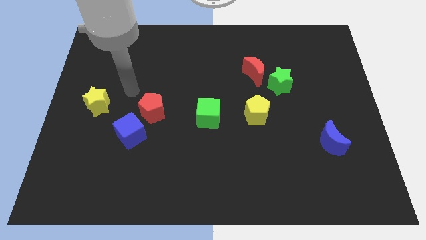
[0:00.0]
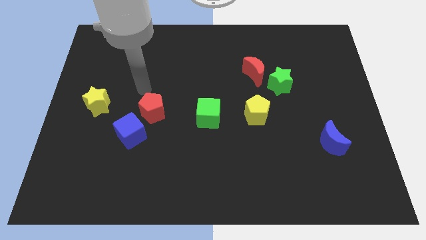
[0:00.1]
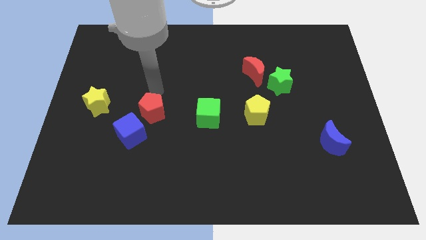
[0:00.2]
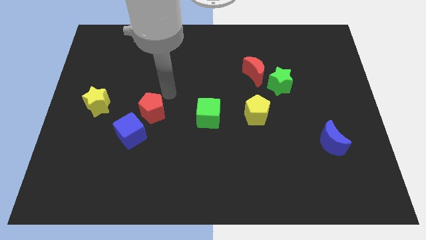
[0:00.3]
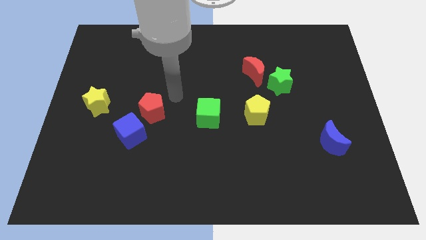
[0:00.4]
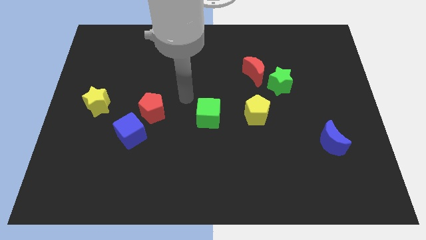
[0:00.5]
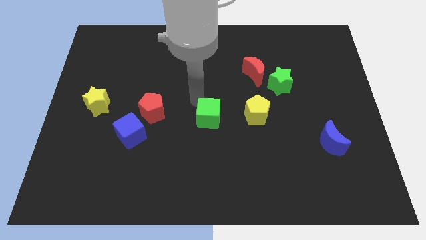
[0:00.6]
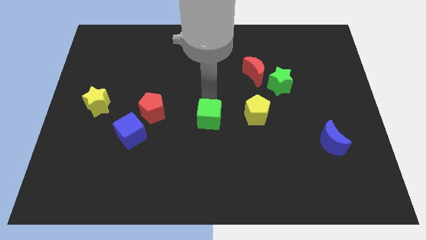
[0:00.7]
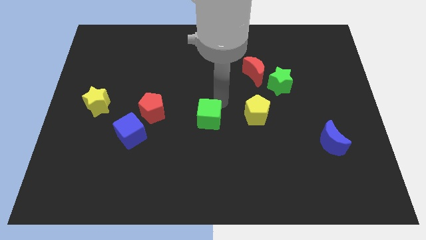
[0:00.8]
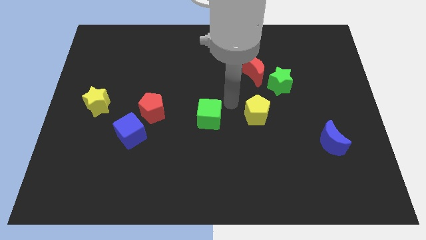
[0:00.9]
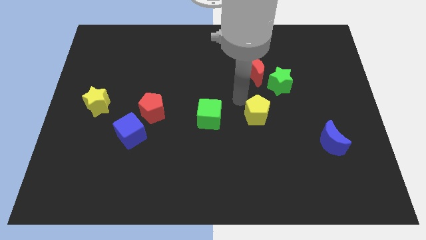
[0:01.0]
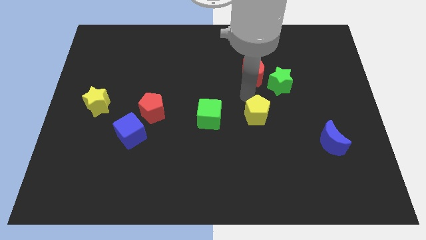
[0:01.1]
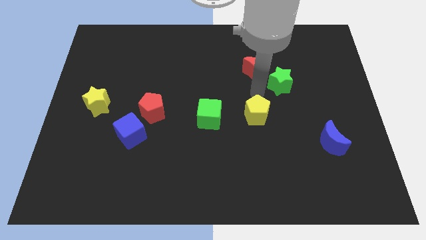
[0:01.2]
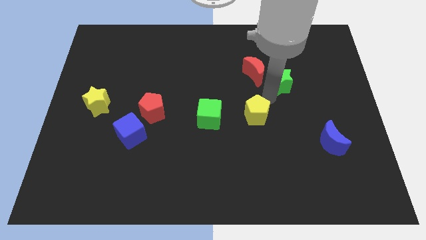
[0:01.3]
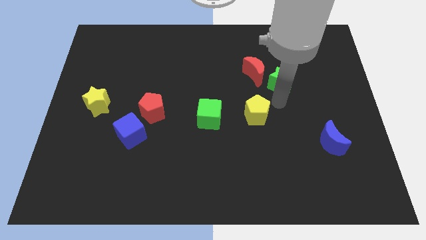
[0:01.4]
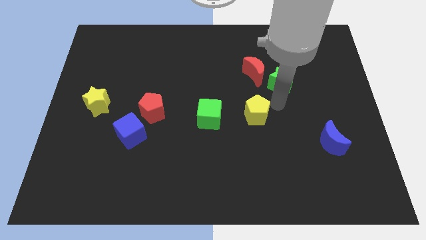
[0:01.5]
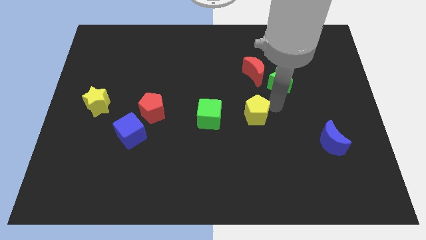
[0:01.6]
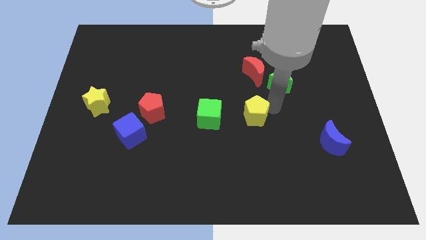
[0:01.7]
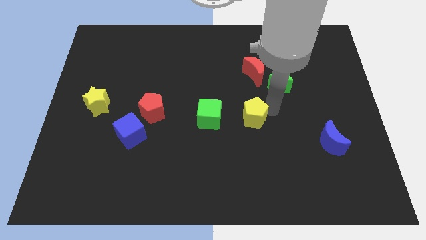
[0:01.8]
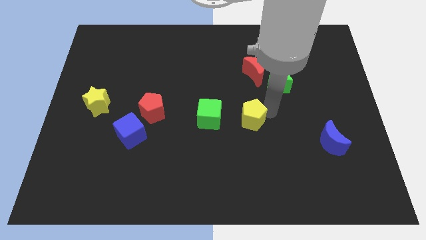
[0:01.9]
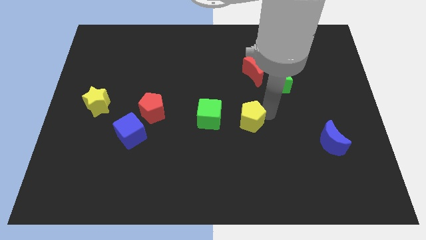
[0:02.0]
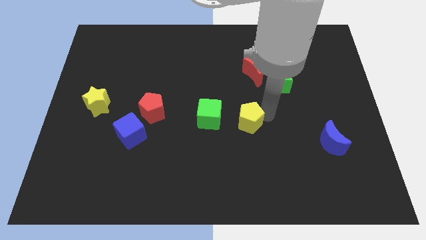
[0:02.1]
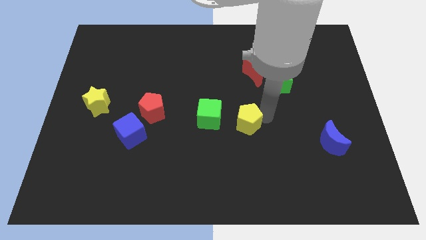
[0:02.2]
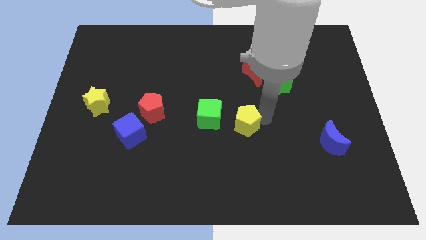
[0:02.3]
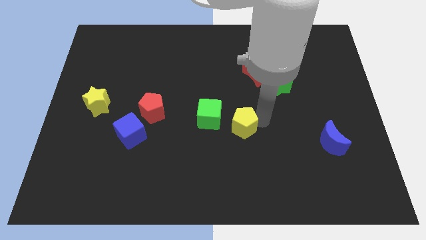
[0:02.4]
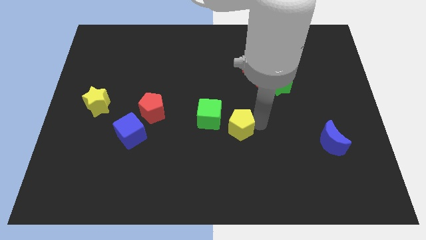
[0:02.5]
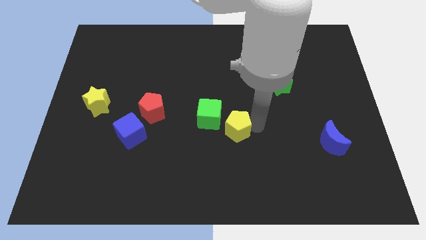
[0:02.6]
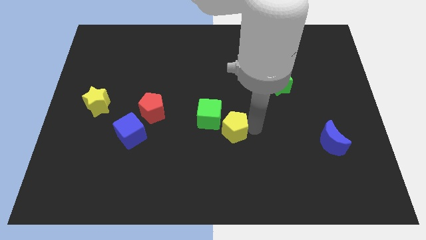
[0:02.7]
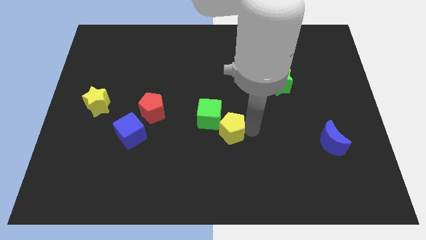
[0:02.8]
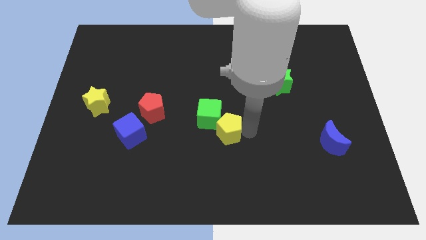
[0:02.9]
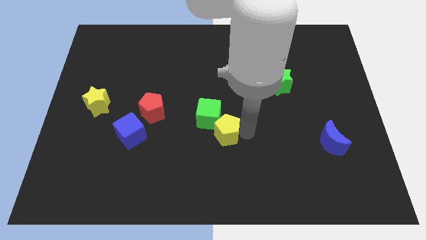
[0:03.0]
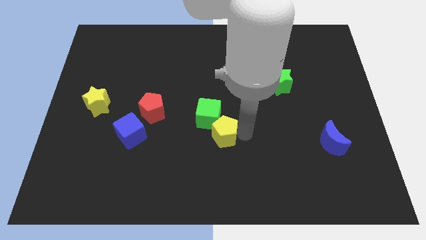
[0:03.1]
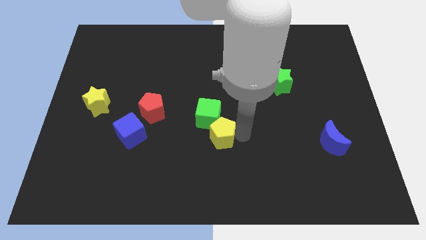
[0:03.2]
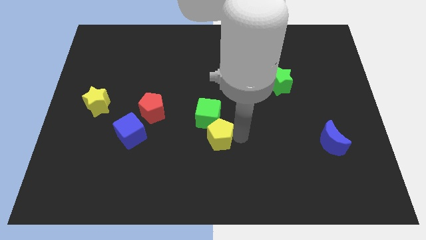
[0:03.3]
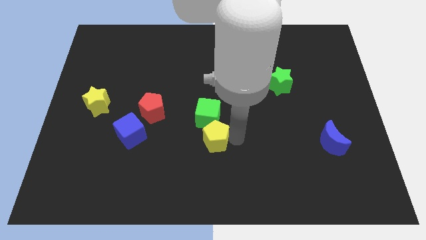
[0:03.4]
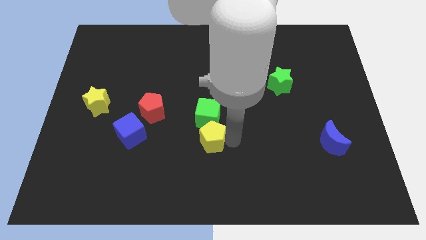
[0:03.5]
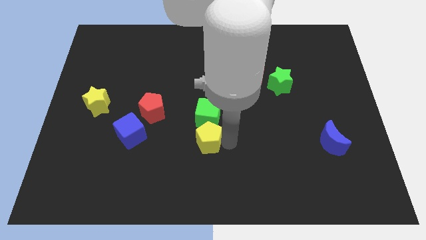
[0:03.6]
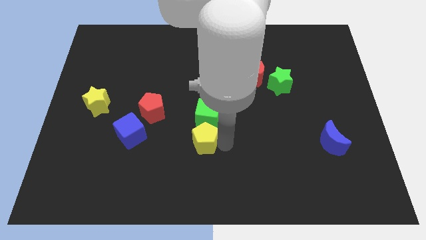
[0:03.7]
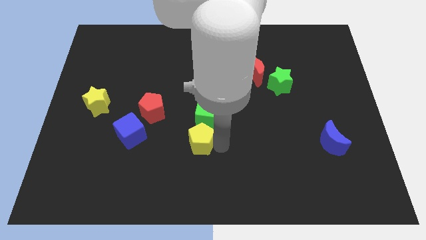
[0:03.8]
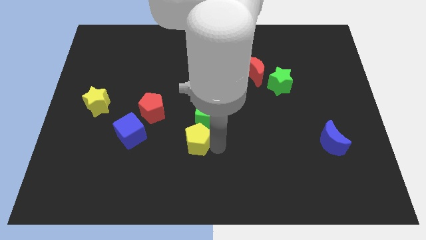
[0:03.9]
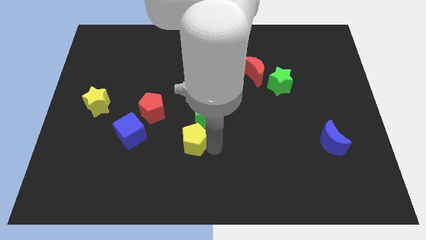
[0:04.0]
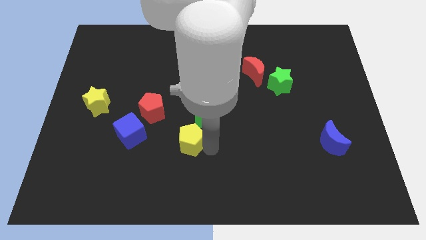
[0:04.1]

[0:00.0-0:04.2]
slide the yellow pentagon diagonally down and to the right of the red pentagon

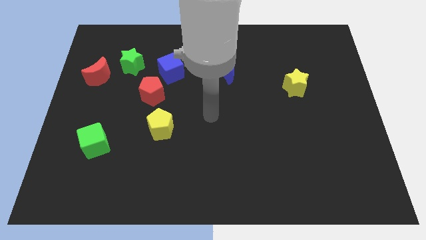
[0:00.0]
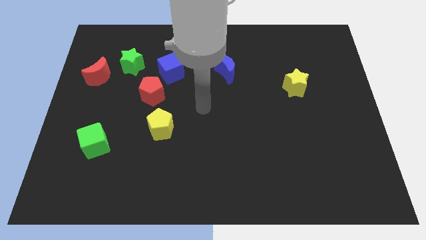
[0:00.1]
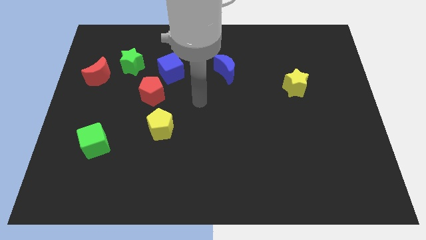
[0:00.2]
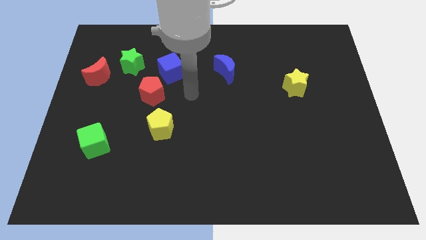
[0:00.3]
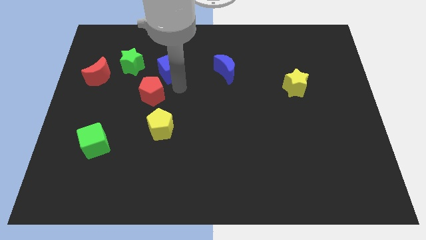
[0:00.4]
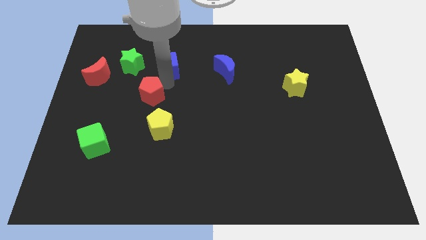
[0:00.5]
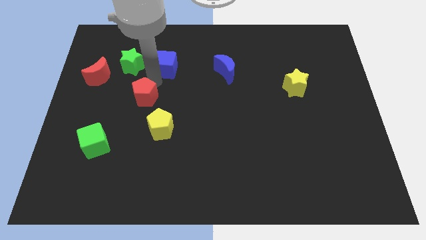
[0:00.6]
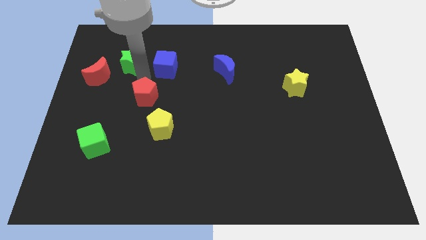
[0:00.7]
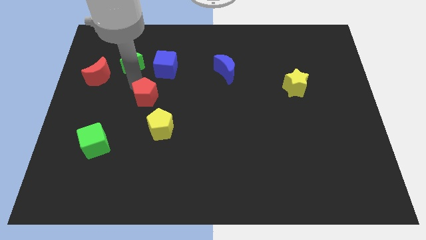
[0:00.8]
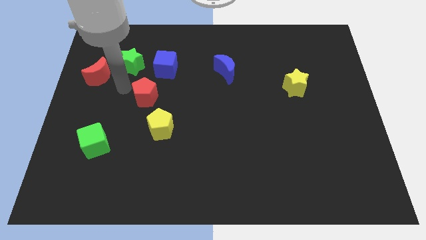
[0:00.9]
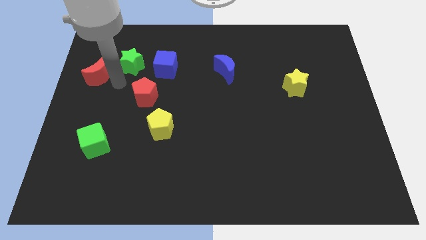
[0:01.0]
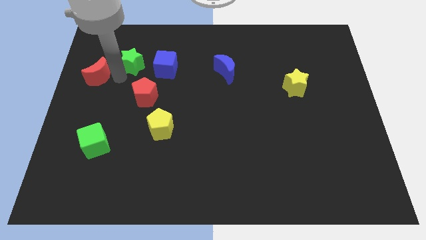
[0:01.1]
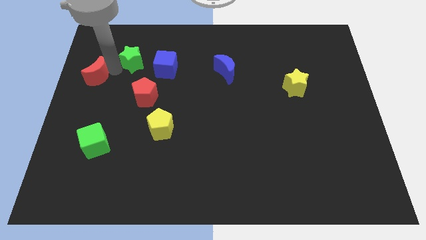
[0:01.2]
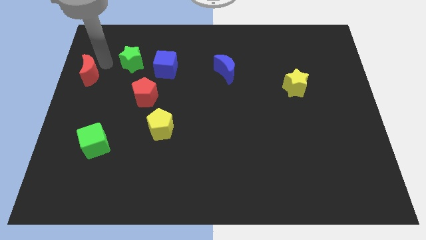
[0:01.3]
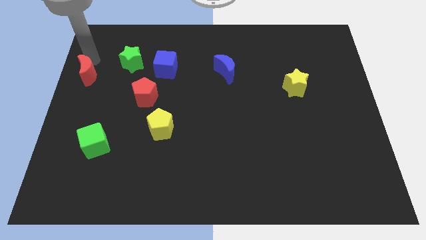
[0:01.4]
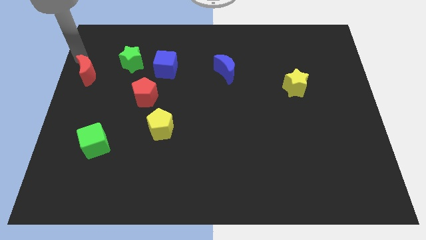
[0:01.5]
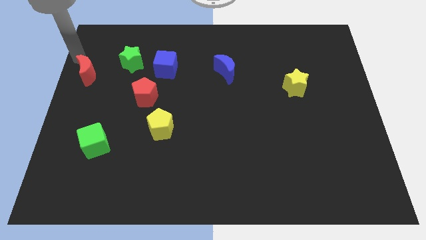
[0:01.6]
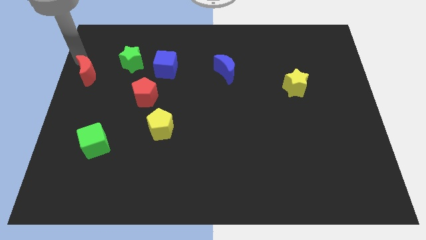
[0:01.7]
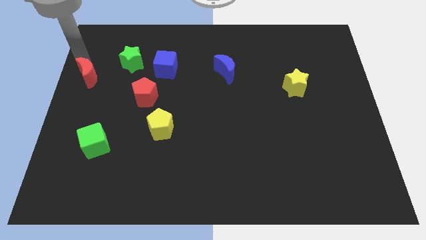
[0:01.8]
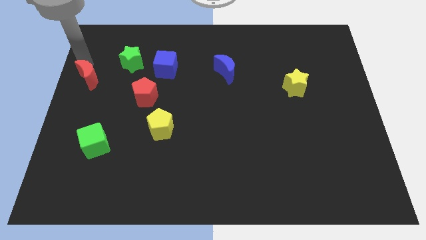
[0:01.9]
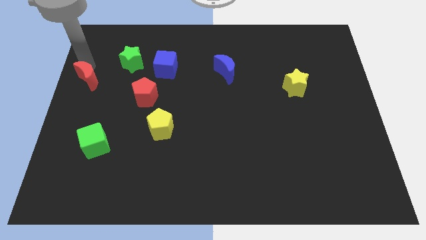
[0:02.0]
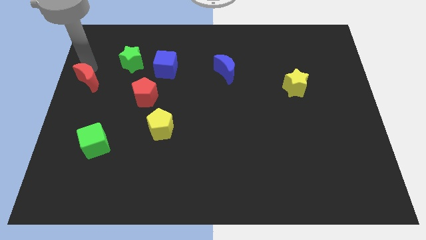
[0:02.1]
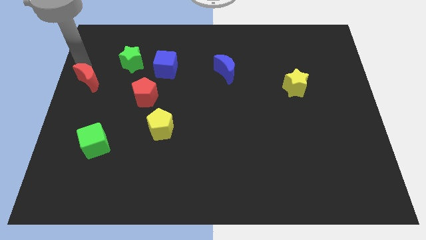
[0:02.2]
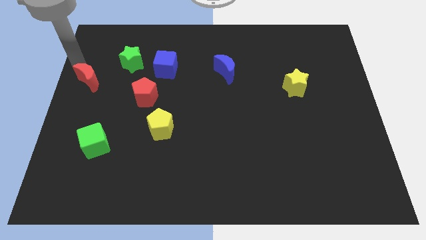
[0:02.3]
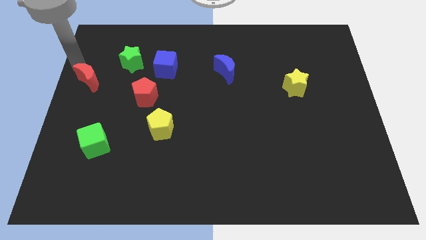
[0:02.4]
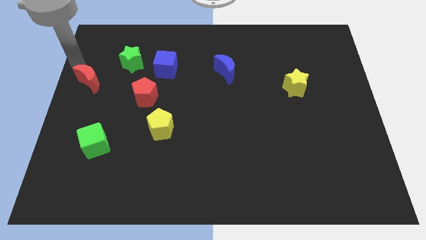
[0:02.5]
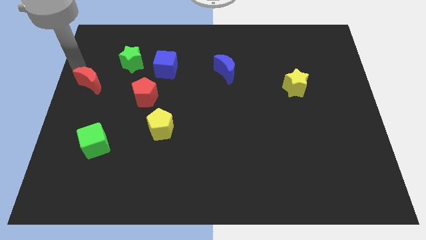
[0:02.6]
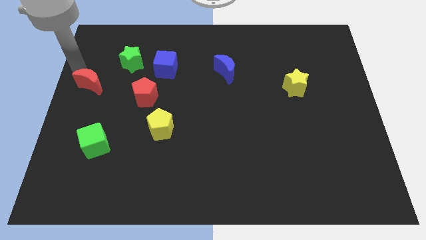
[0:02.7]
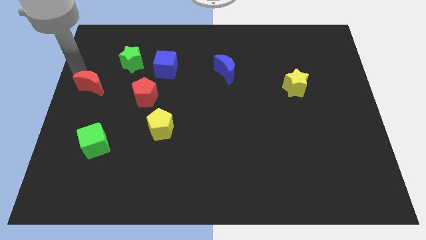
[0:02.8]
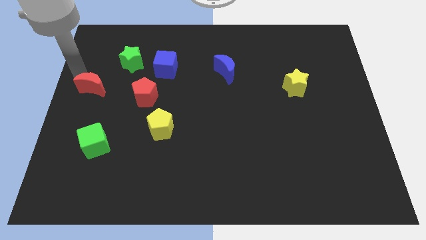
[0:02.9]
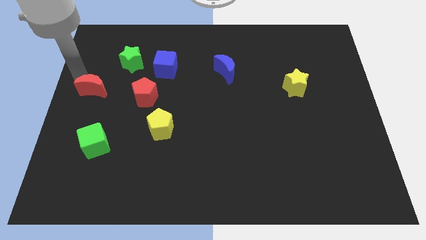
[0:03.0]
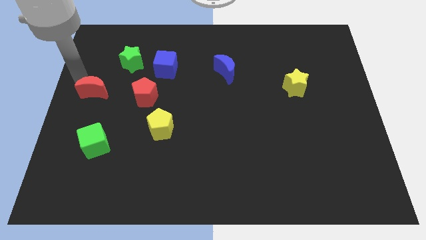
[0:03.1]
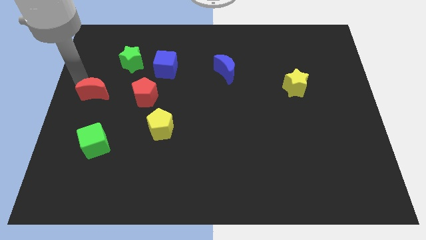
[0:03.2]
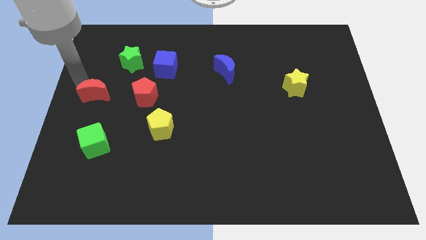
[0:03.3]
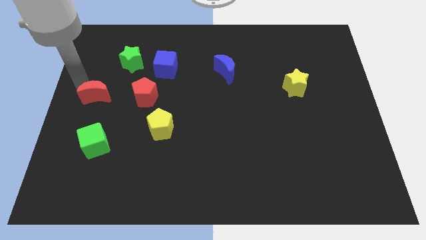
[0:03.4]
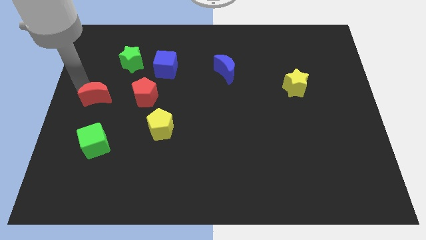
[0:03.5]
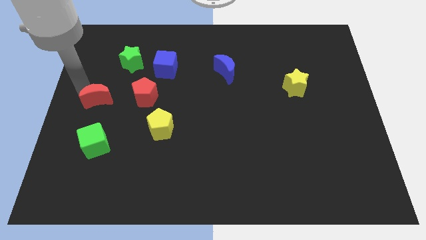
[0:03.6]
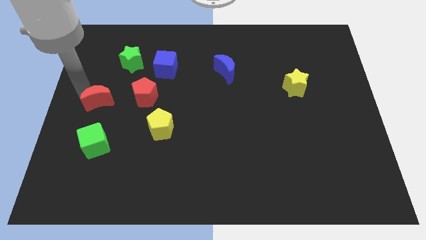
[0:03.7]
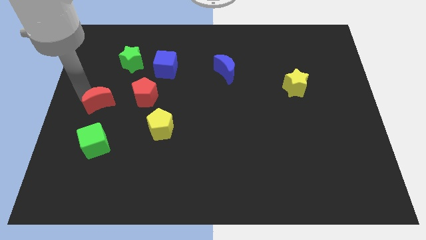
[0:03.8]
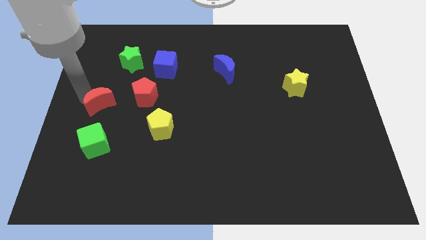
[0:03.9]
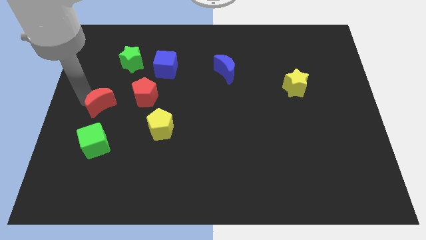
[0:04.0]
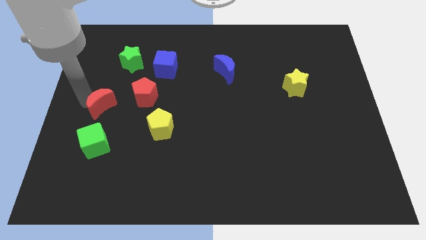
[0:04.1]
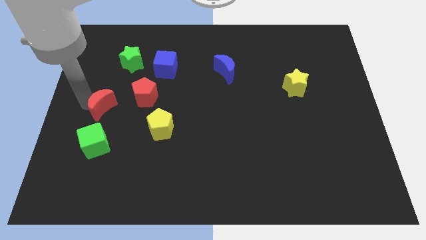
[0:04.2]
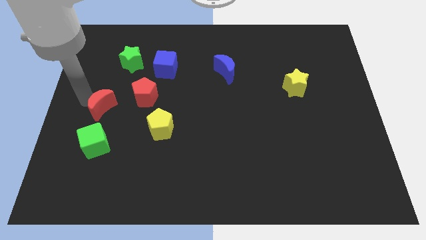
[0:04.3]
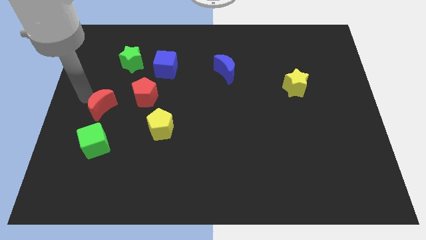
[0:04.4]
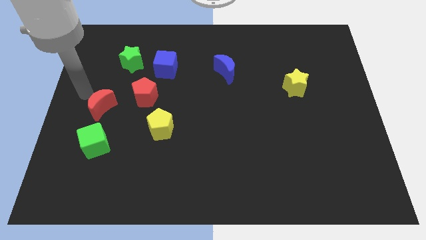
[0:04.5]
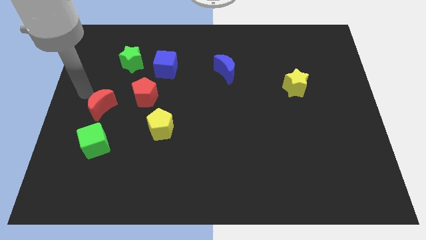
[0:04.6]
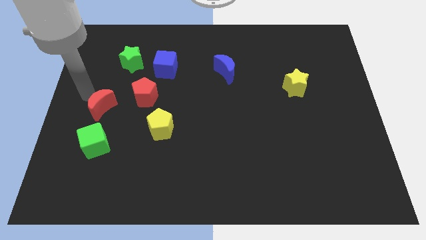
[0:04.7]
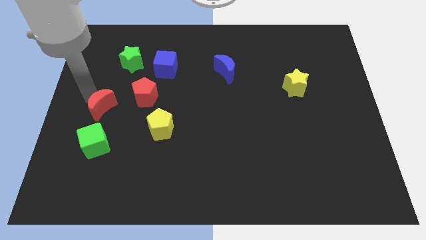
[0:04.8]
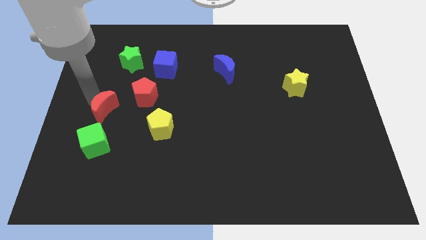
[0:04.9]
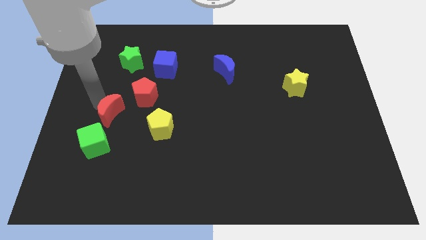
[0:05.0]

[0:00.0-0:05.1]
slide the red moon to the left of the yellow pentagon
